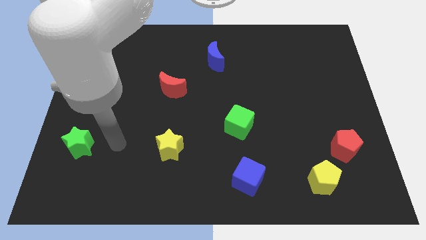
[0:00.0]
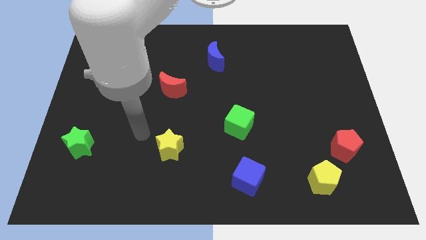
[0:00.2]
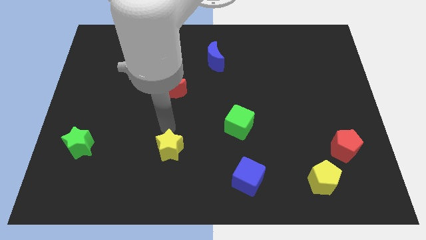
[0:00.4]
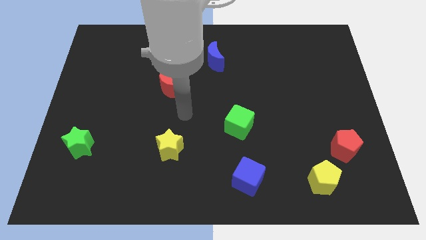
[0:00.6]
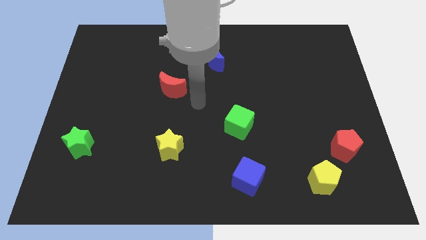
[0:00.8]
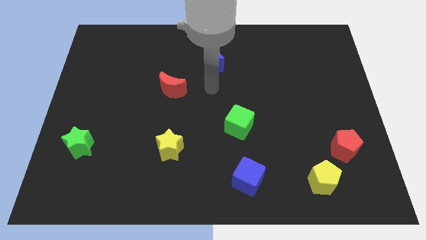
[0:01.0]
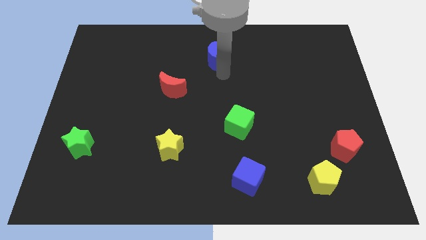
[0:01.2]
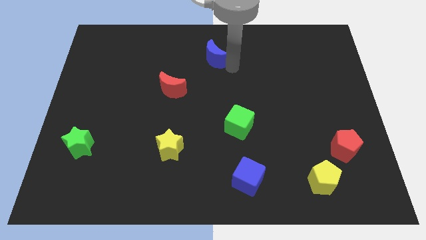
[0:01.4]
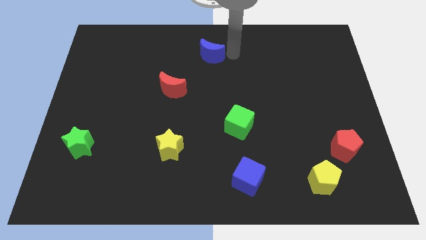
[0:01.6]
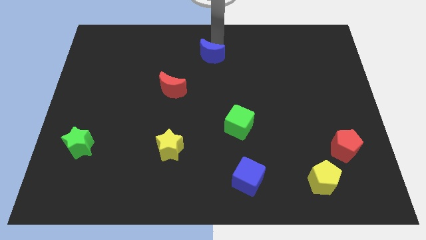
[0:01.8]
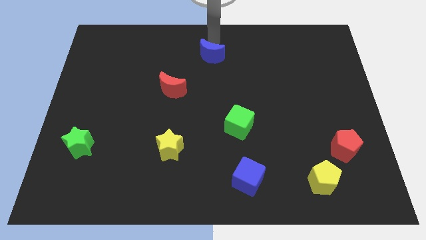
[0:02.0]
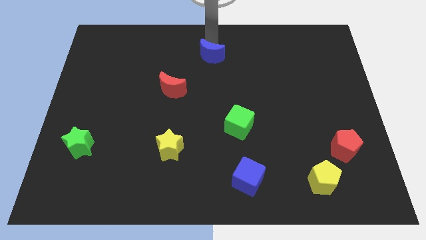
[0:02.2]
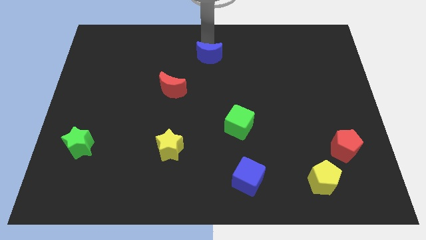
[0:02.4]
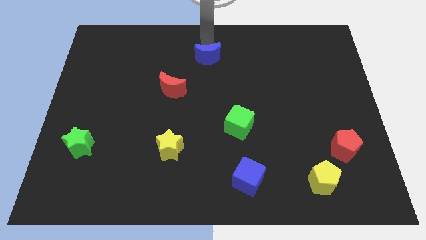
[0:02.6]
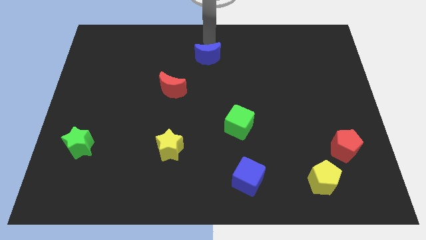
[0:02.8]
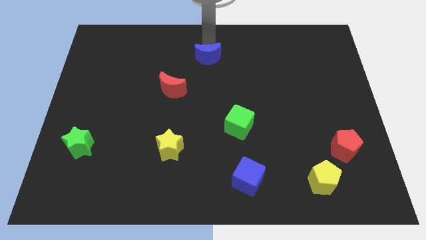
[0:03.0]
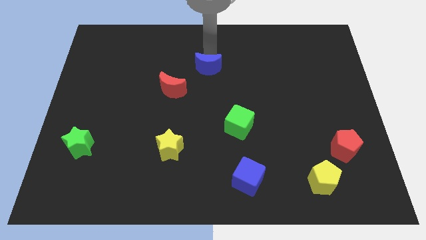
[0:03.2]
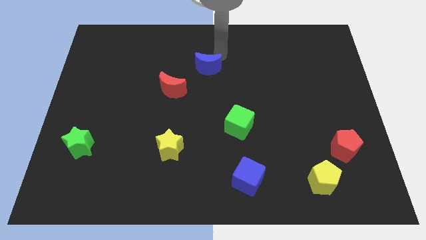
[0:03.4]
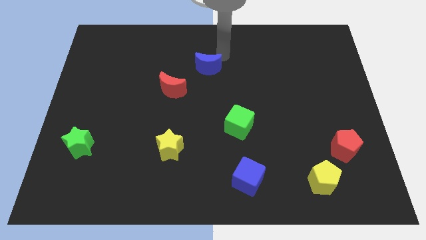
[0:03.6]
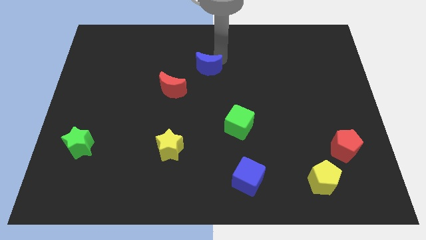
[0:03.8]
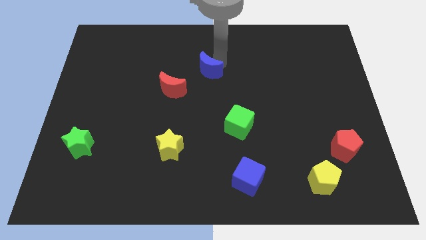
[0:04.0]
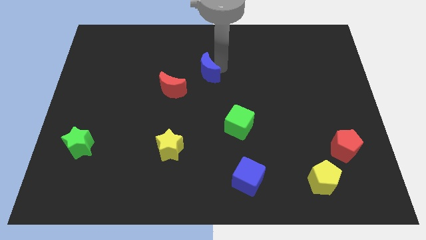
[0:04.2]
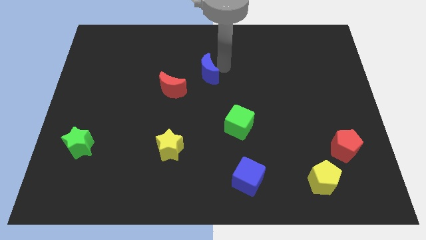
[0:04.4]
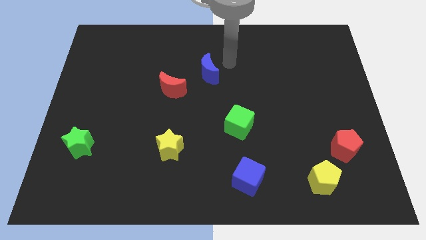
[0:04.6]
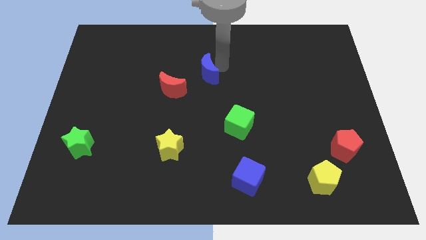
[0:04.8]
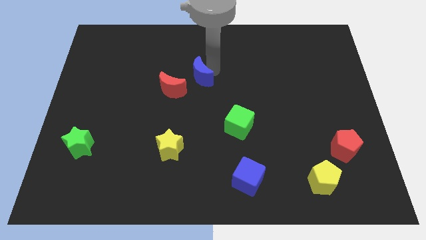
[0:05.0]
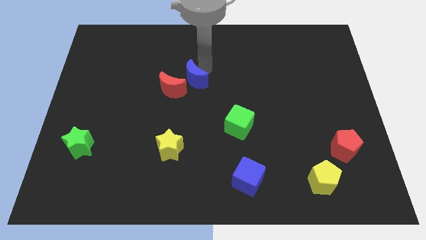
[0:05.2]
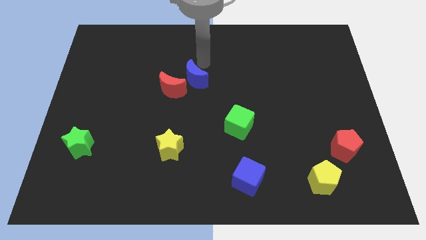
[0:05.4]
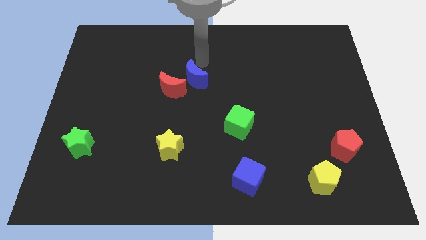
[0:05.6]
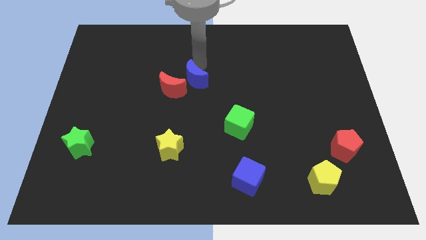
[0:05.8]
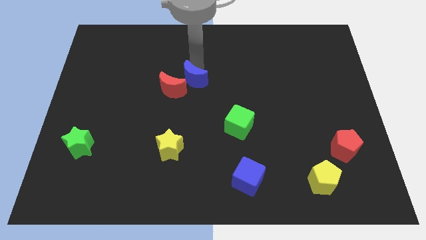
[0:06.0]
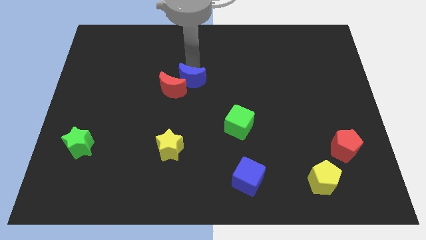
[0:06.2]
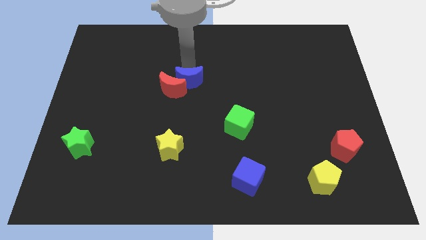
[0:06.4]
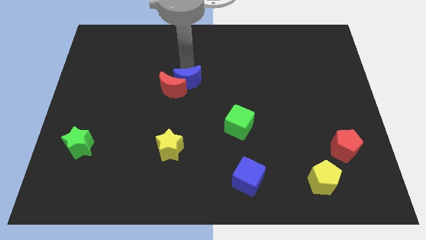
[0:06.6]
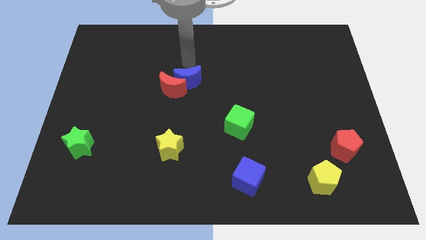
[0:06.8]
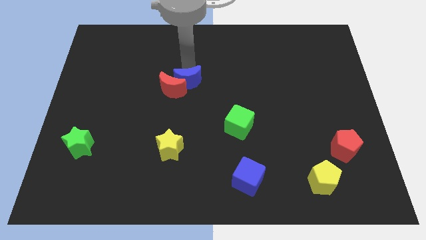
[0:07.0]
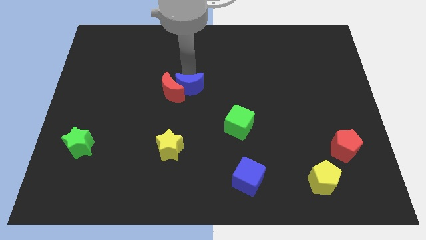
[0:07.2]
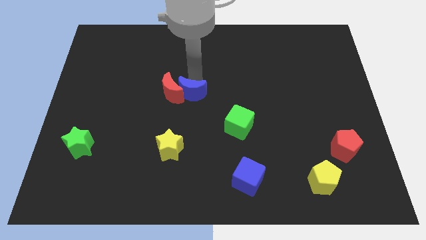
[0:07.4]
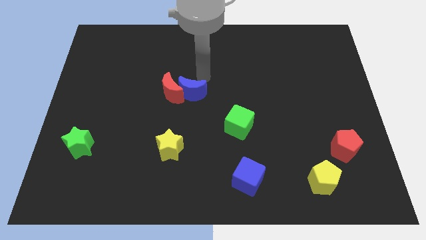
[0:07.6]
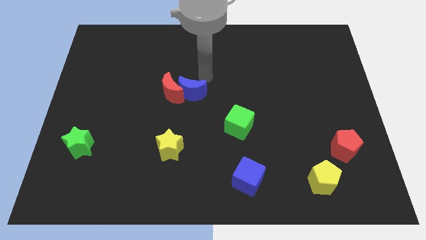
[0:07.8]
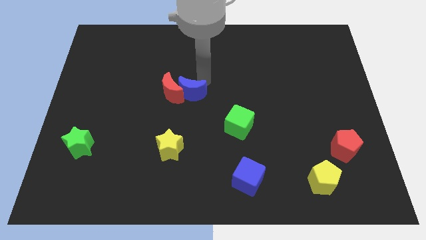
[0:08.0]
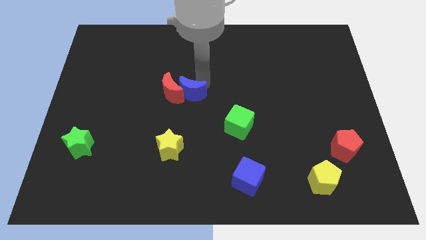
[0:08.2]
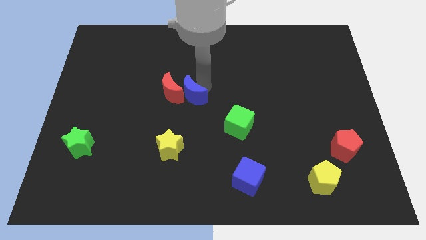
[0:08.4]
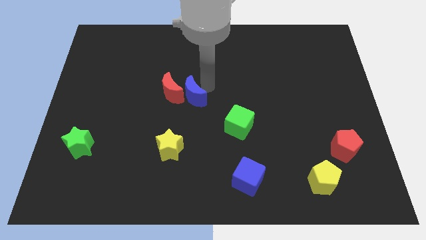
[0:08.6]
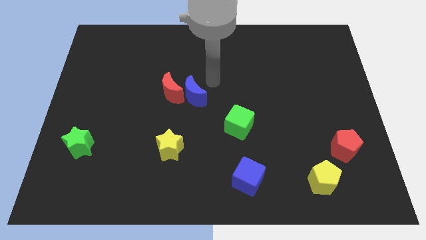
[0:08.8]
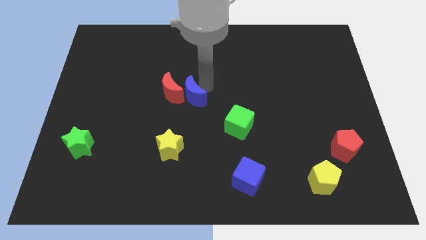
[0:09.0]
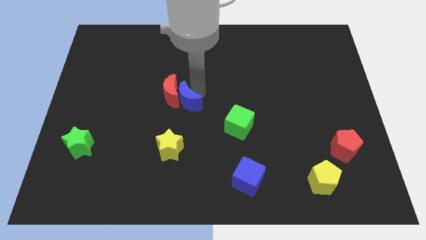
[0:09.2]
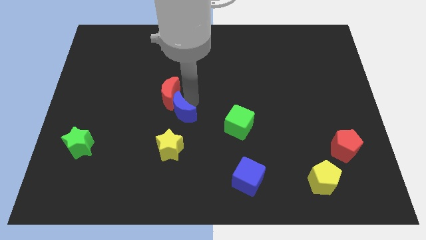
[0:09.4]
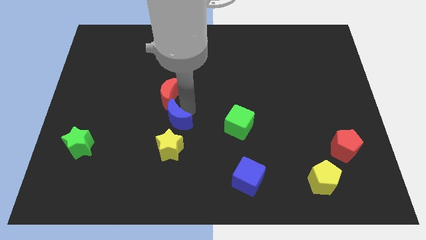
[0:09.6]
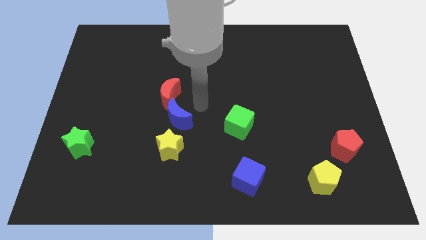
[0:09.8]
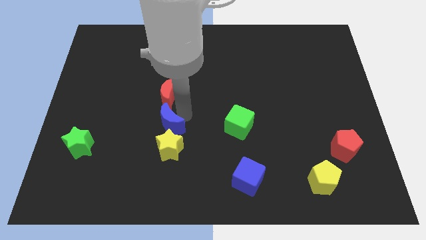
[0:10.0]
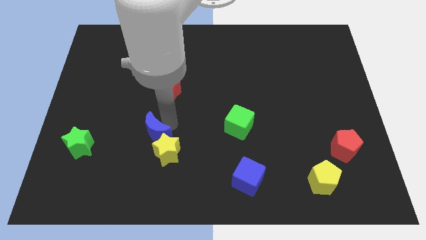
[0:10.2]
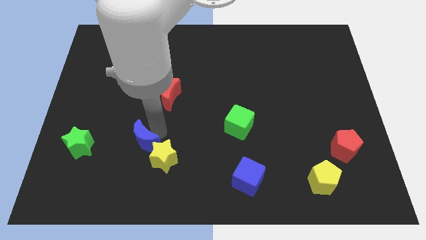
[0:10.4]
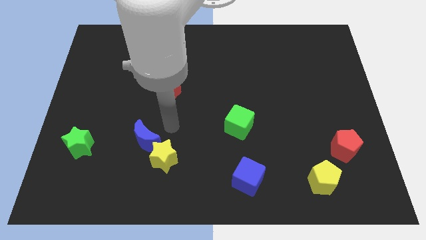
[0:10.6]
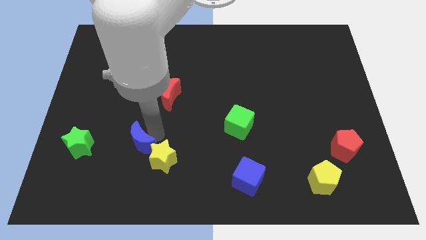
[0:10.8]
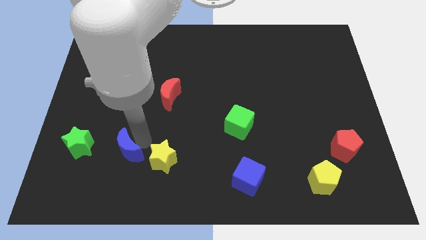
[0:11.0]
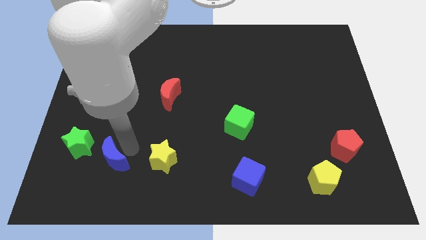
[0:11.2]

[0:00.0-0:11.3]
put the blue moon diagonally down and to the right of the green star
